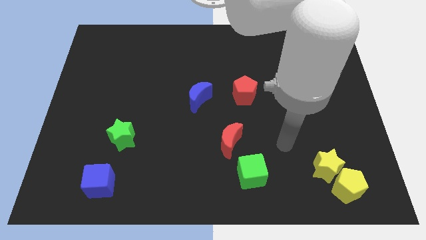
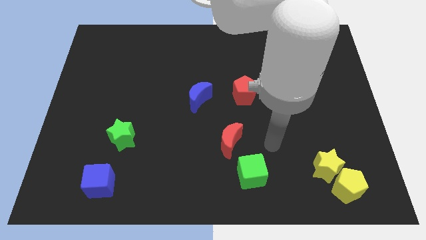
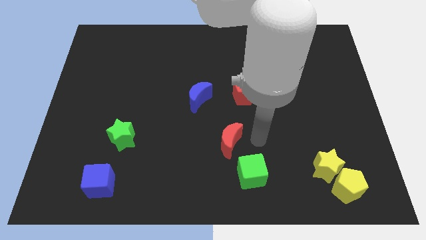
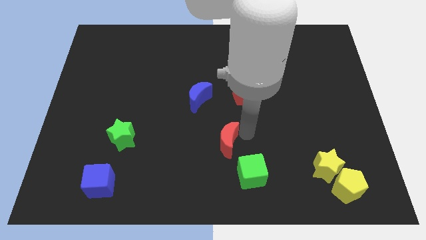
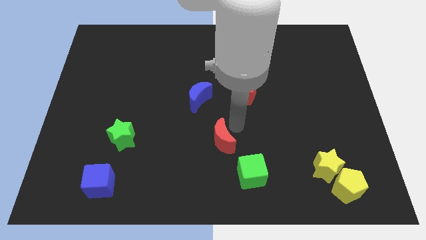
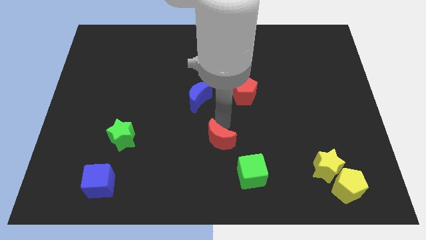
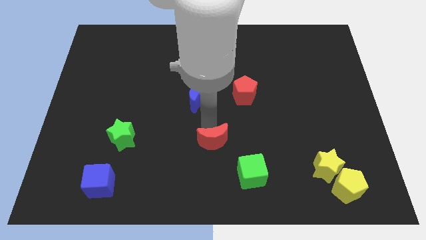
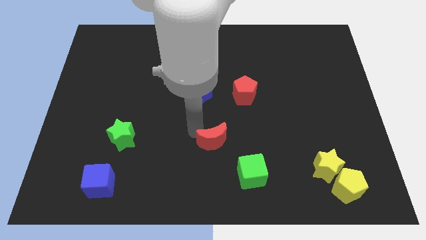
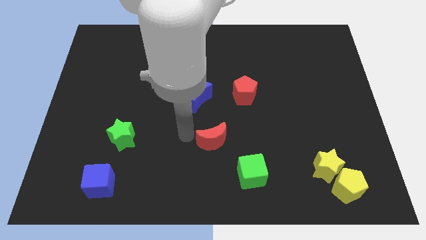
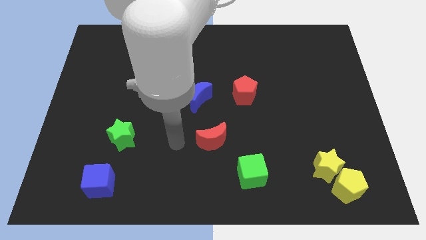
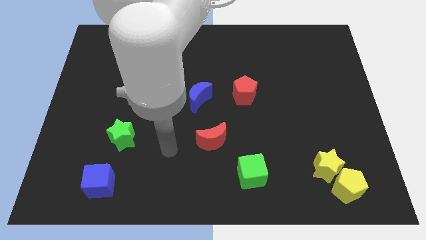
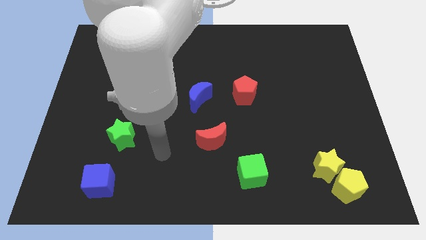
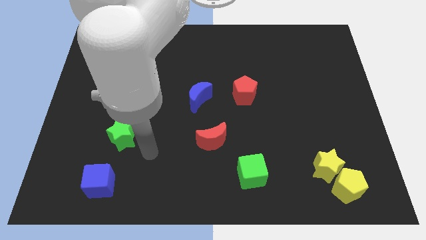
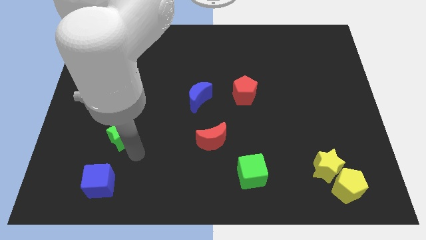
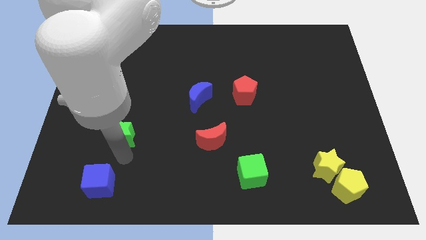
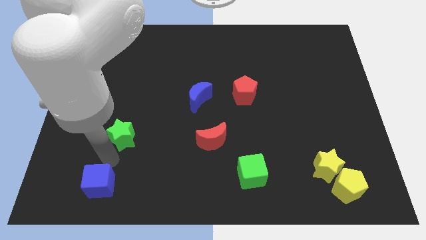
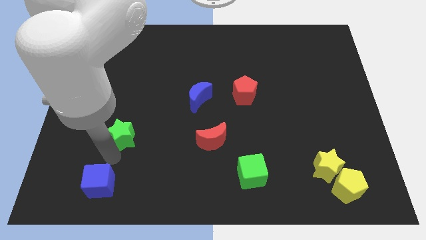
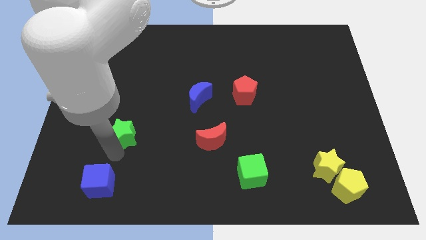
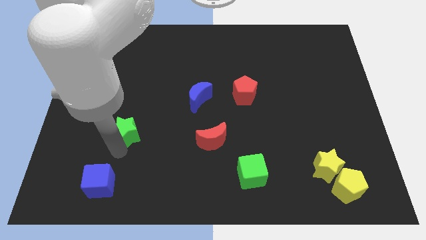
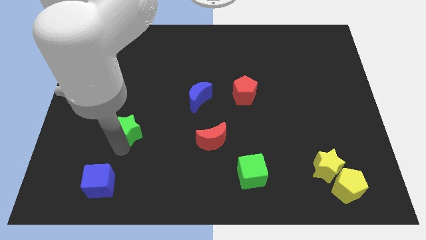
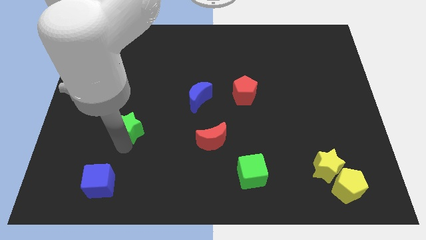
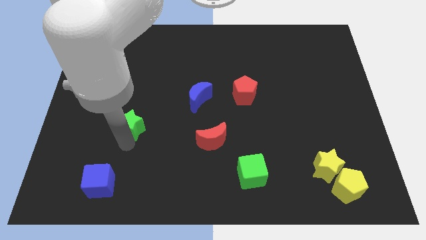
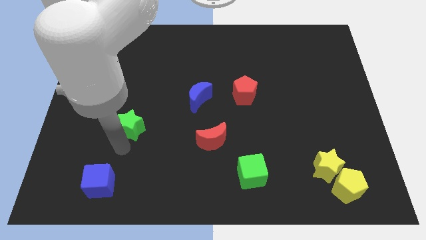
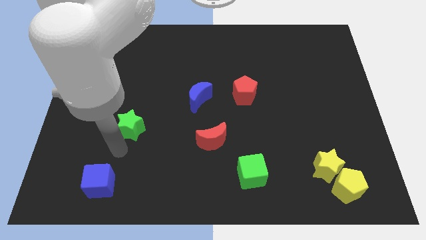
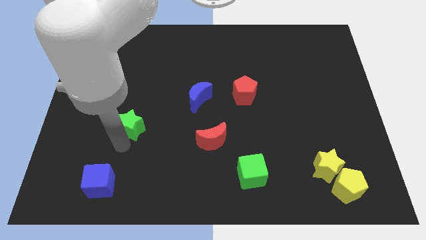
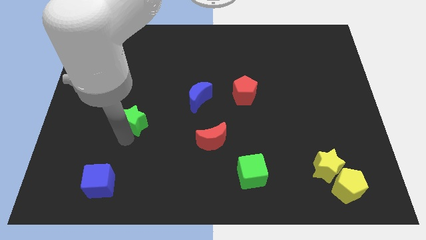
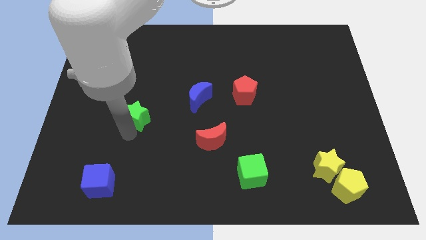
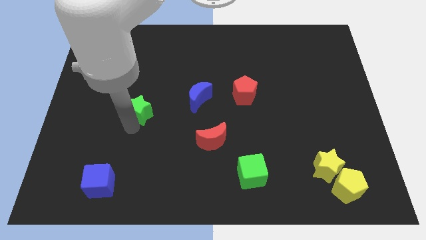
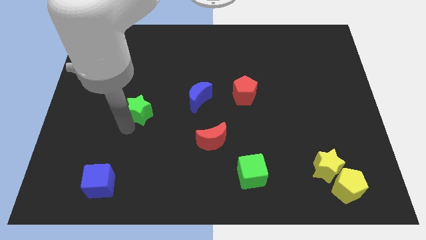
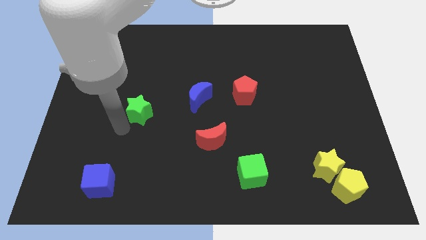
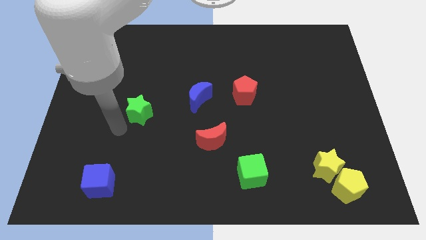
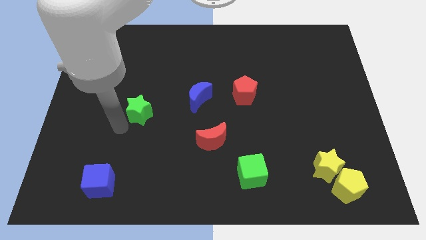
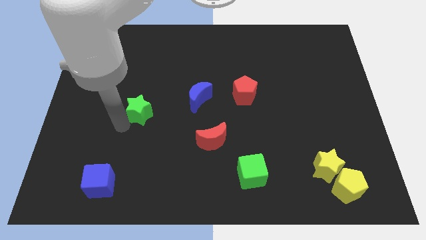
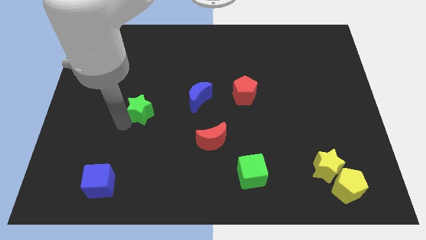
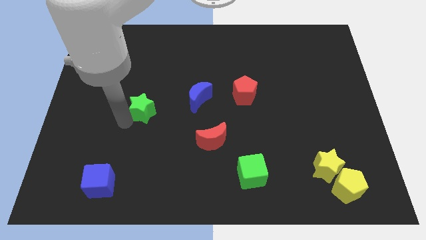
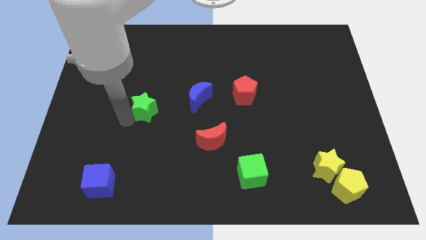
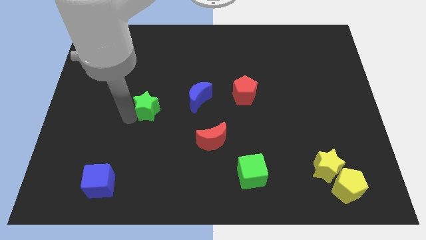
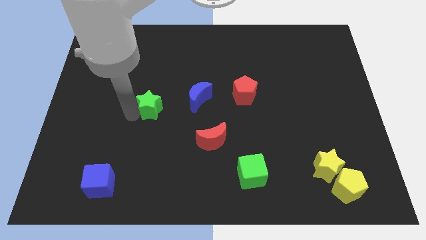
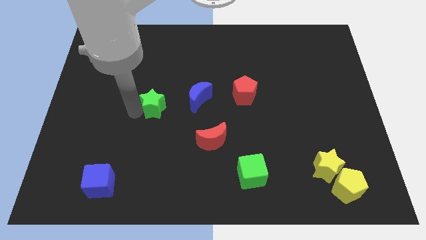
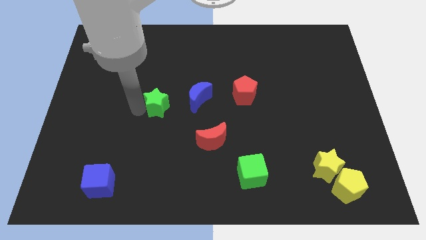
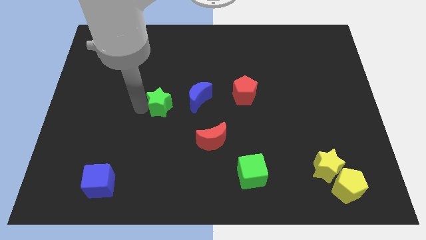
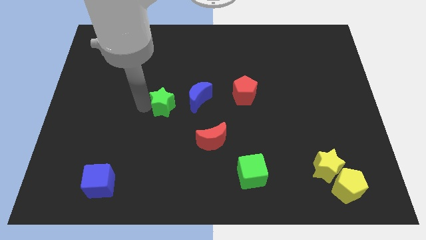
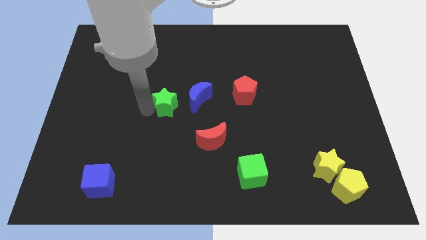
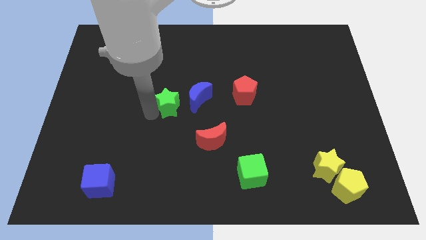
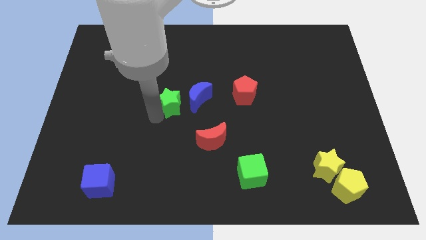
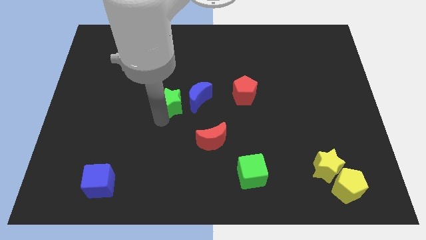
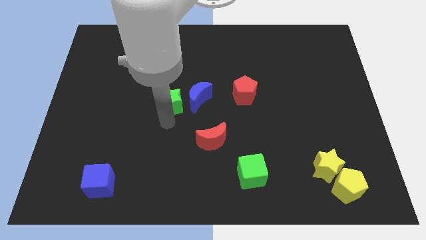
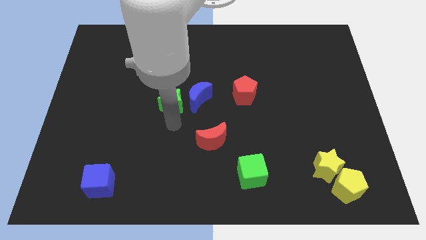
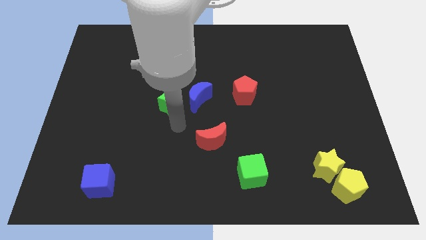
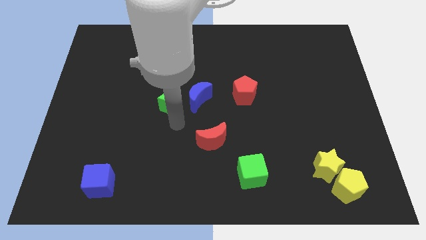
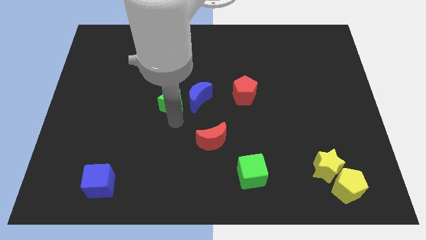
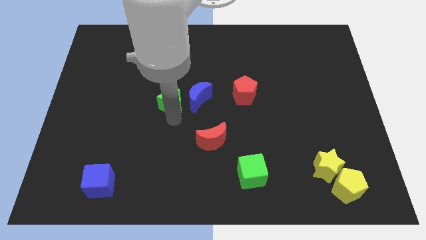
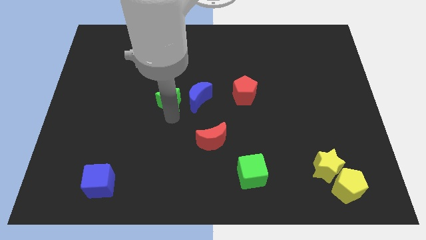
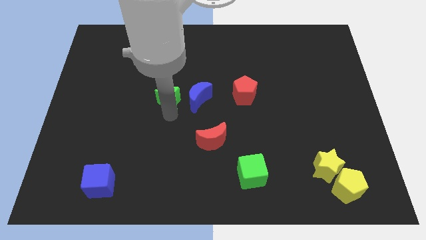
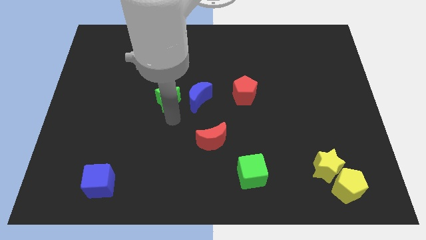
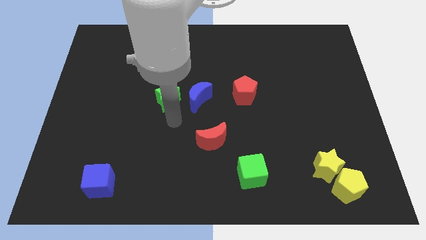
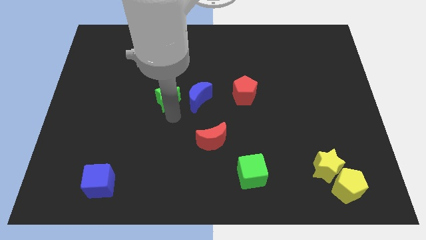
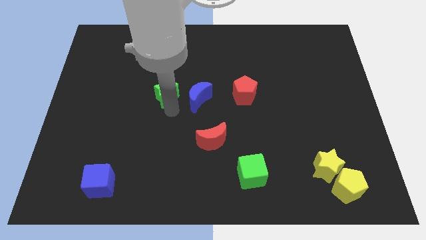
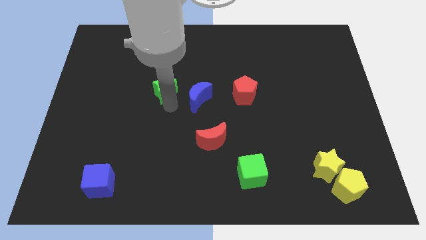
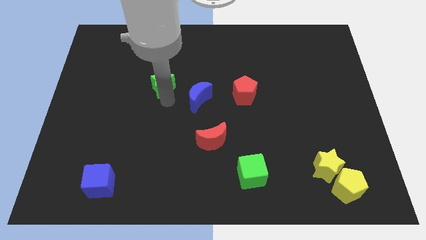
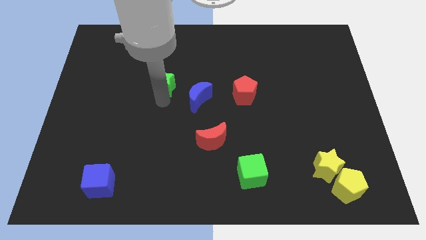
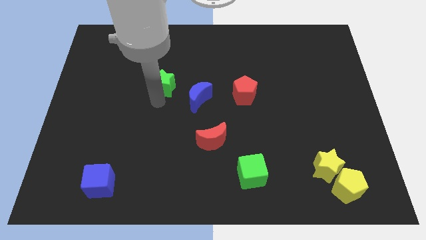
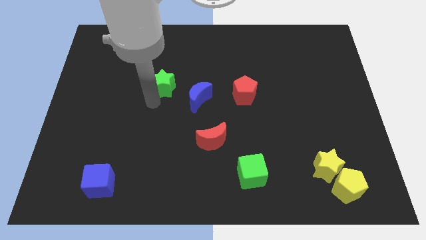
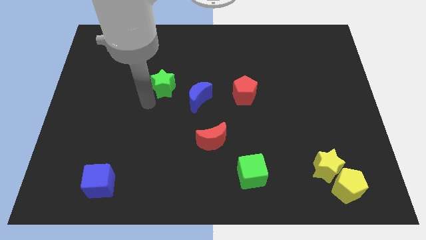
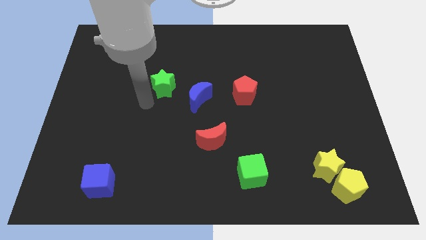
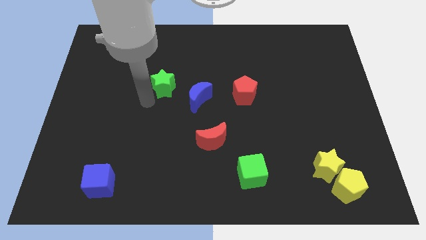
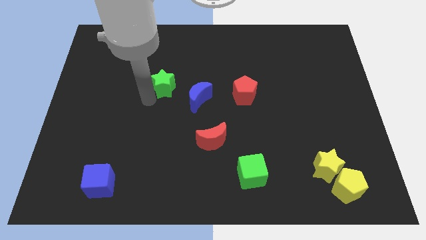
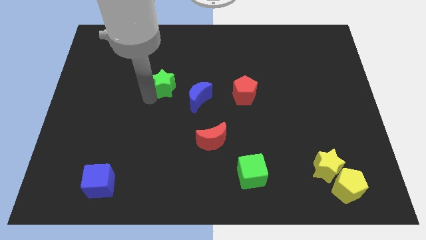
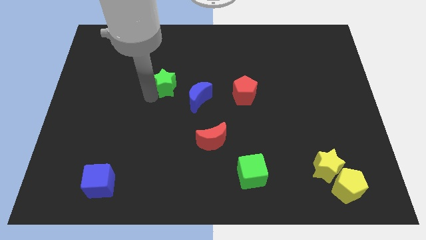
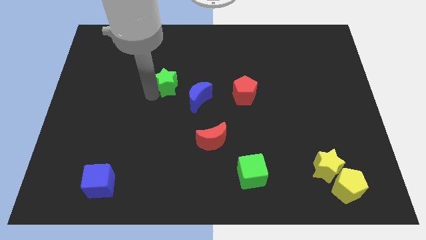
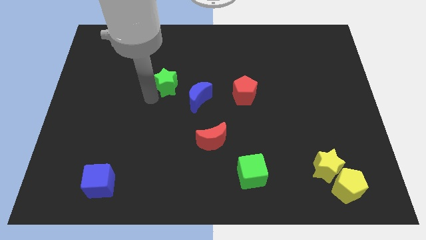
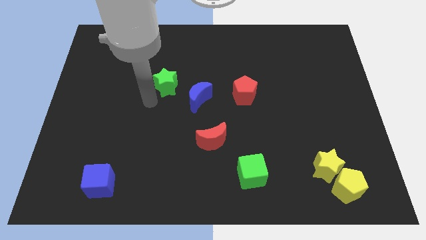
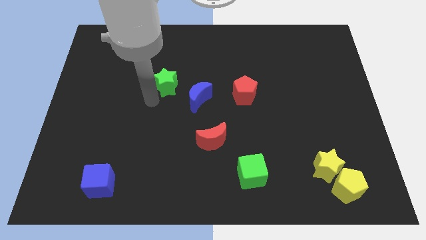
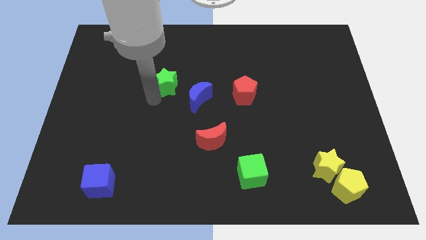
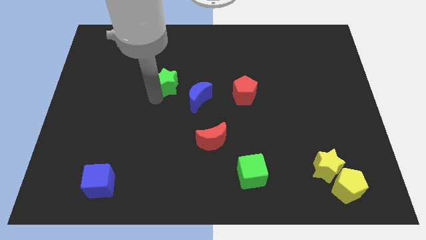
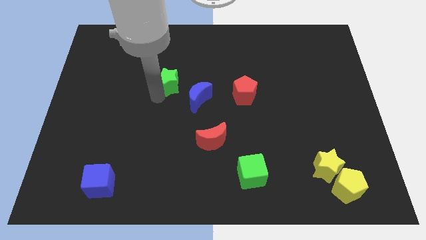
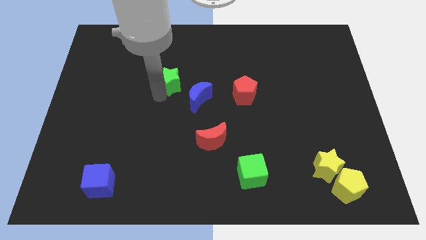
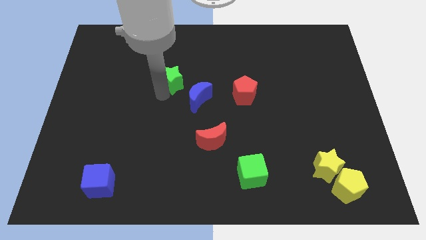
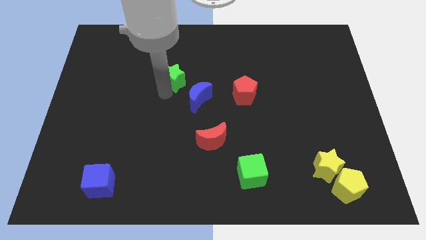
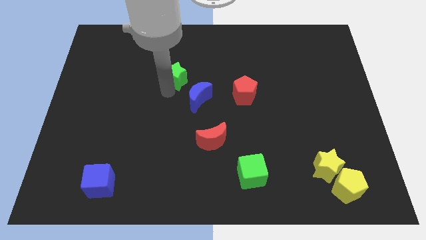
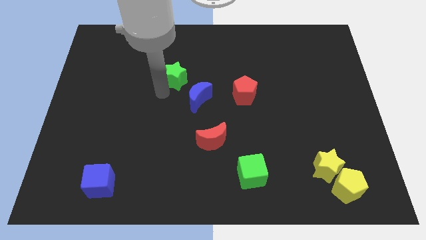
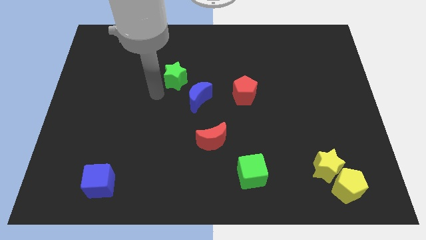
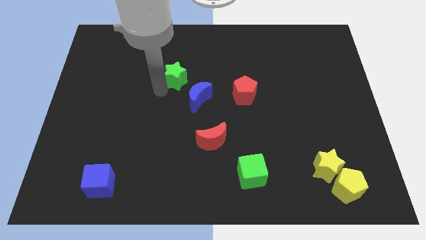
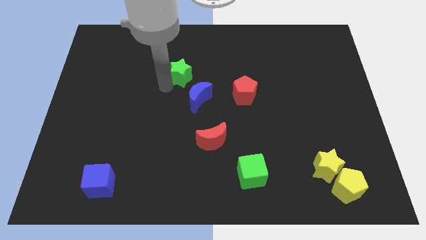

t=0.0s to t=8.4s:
slide the green star upwards and right diagonally
